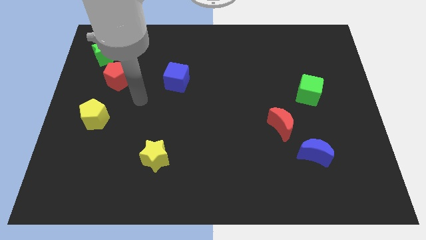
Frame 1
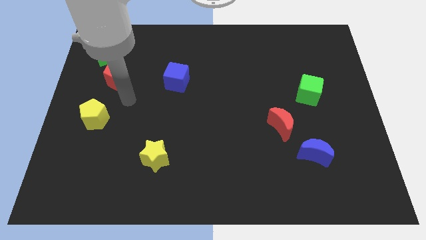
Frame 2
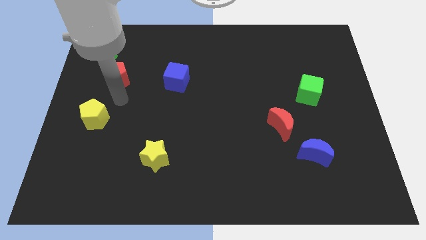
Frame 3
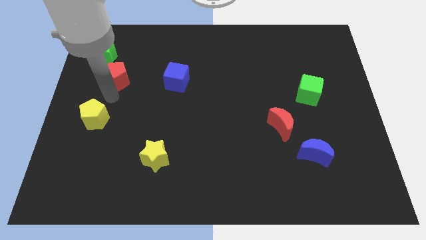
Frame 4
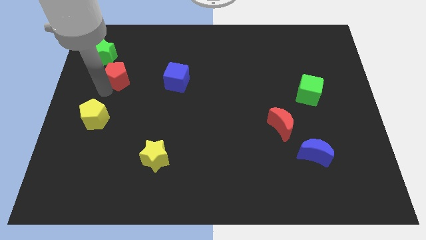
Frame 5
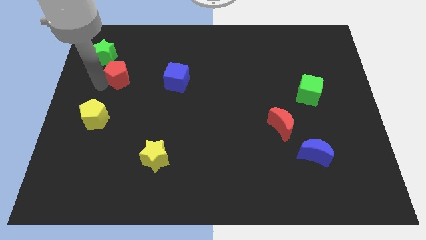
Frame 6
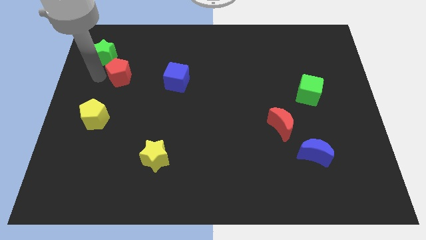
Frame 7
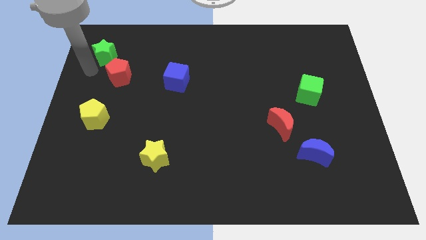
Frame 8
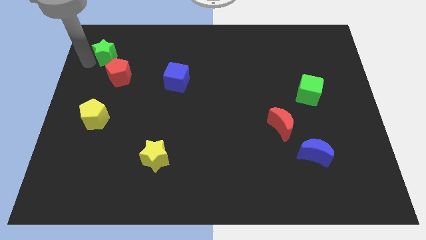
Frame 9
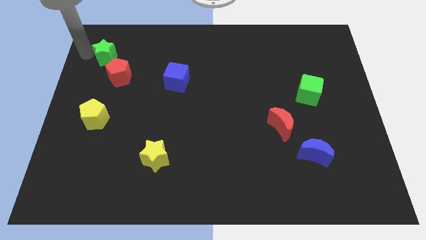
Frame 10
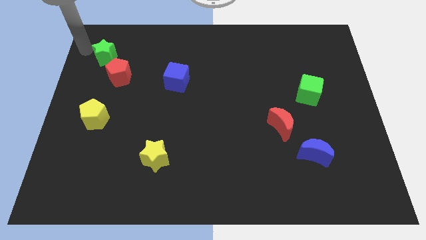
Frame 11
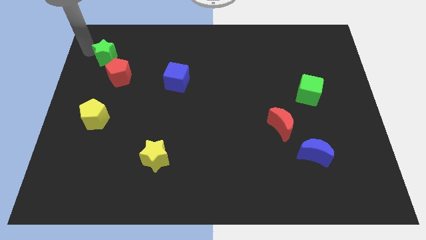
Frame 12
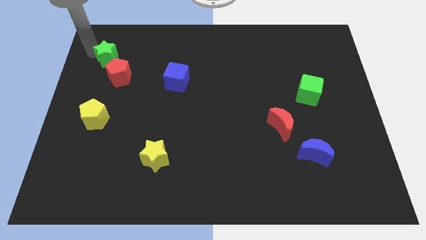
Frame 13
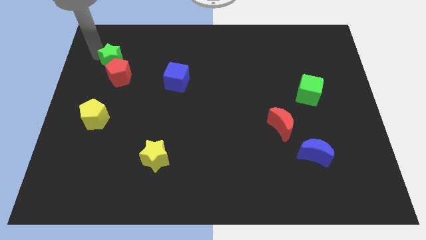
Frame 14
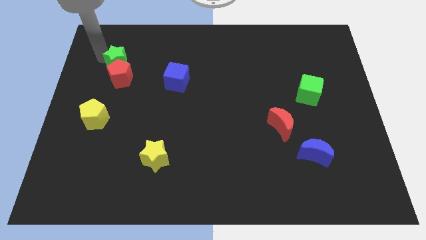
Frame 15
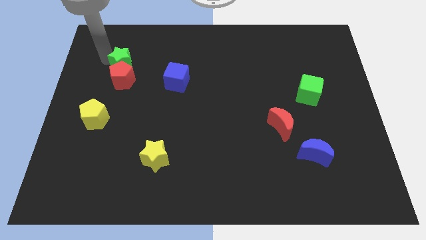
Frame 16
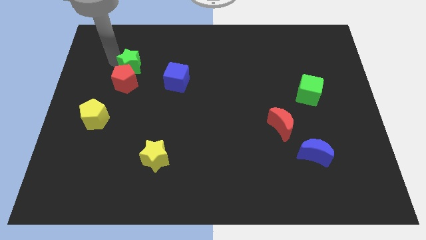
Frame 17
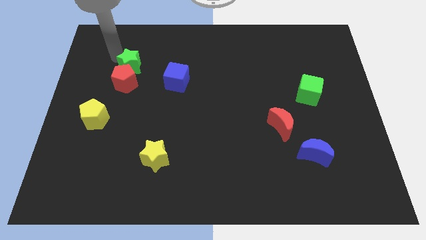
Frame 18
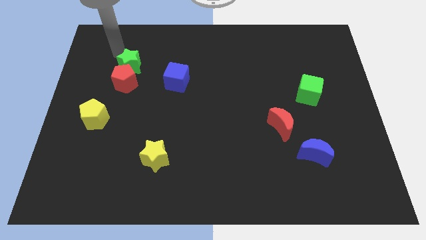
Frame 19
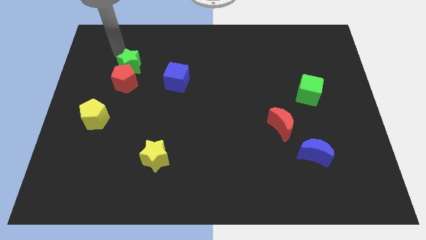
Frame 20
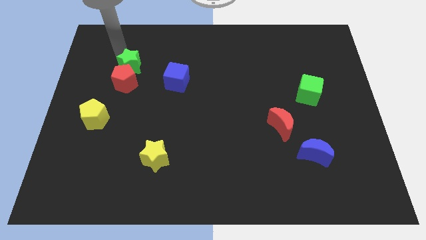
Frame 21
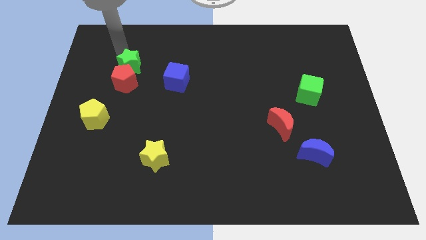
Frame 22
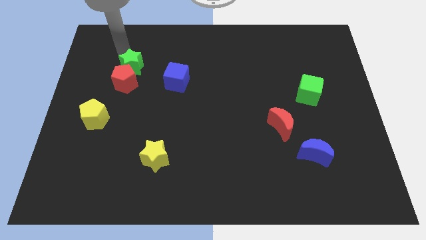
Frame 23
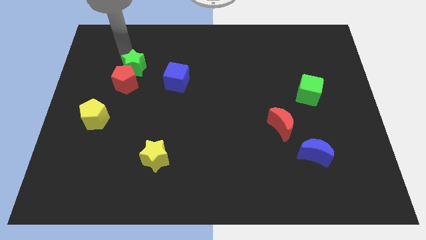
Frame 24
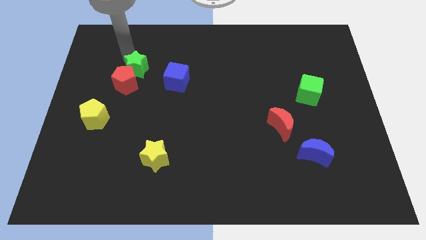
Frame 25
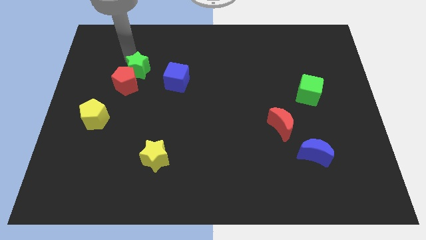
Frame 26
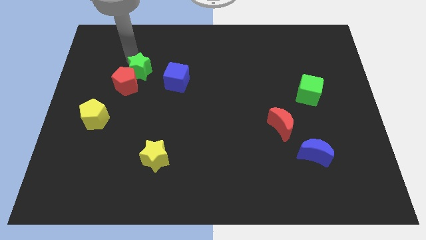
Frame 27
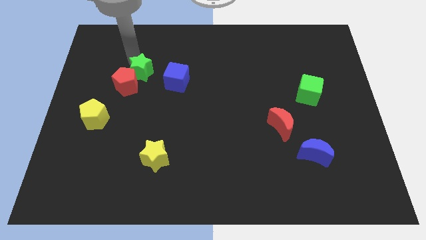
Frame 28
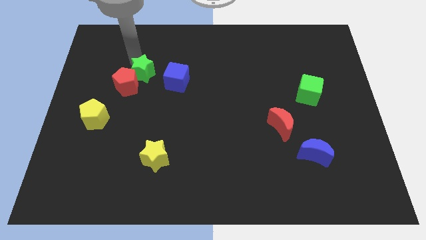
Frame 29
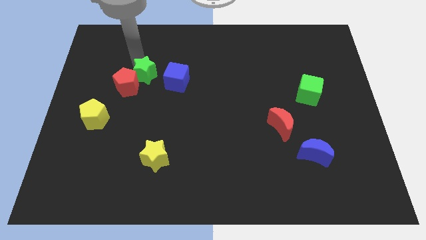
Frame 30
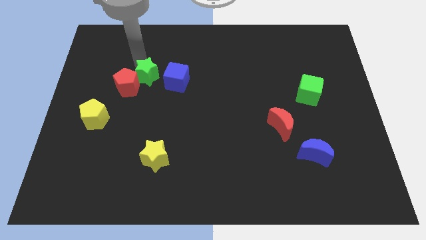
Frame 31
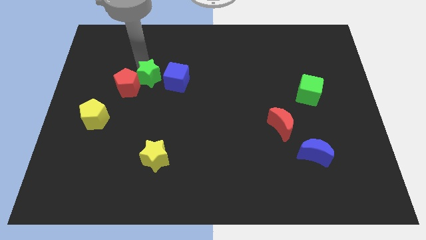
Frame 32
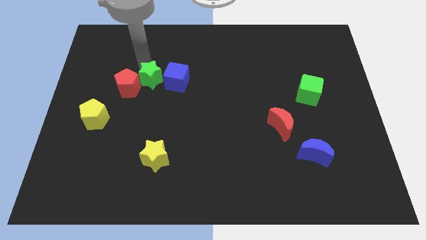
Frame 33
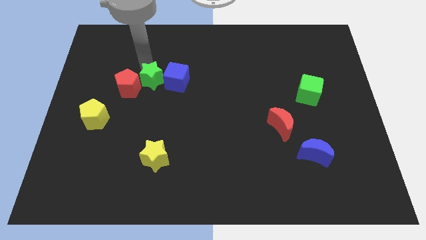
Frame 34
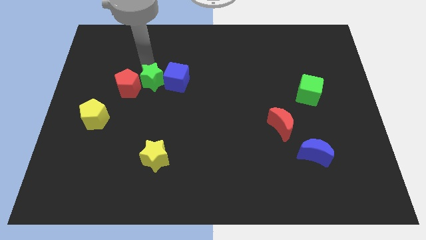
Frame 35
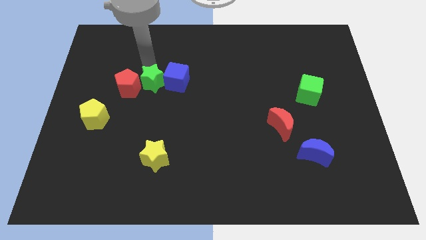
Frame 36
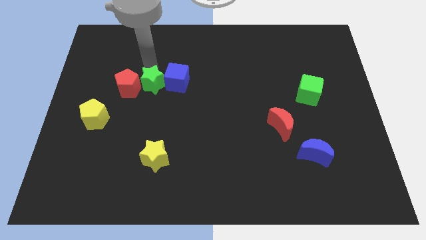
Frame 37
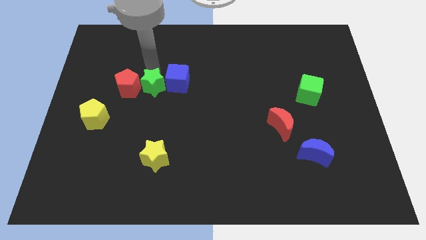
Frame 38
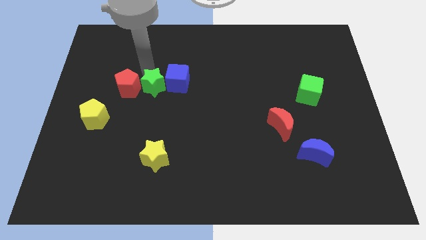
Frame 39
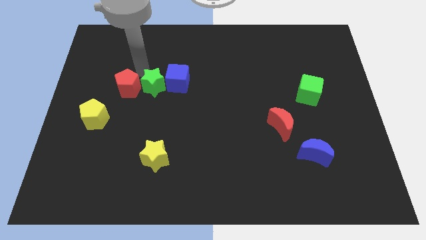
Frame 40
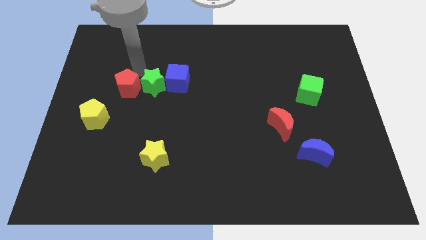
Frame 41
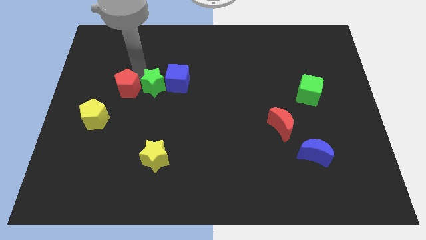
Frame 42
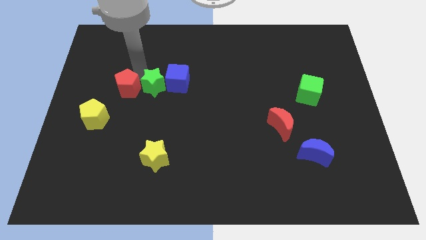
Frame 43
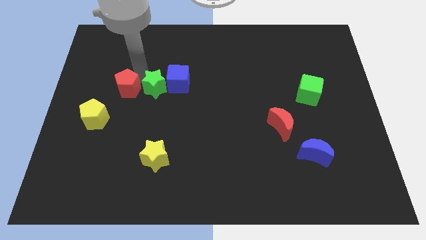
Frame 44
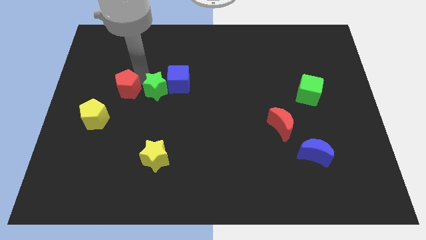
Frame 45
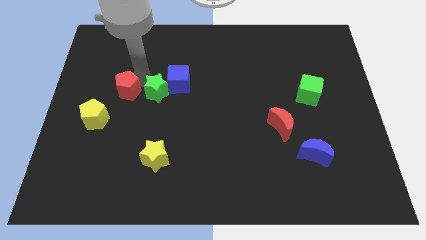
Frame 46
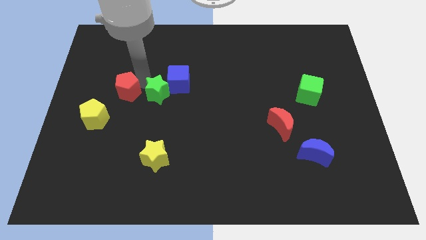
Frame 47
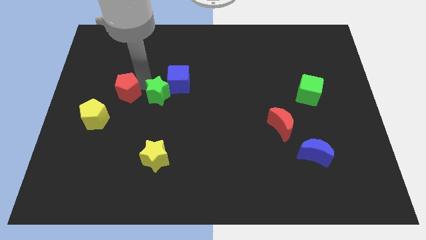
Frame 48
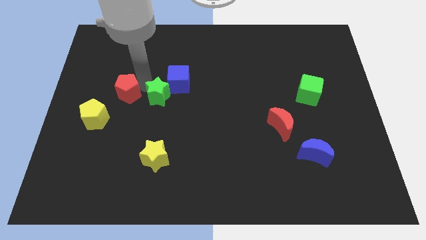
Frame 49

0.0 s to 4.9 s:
put the green star to the bottom of the blue cube

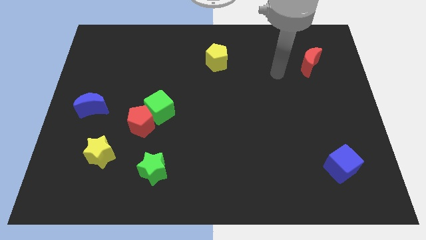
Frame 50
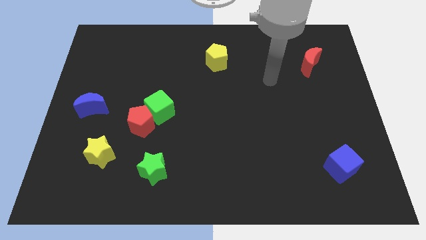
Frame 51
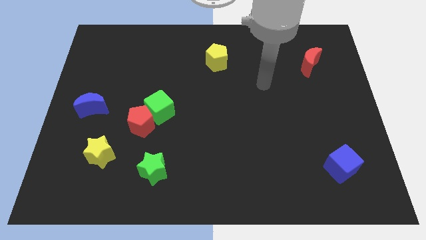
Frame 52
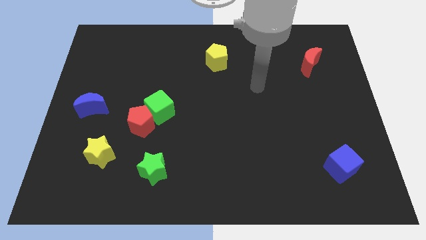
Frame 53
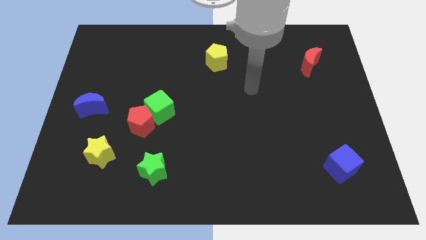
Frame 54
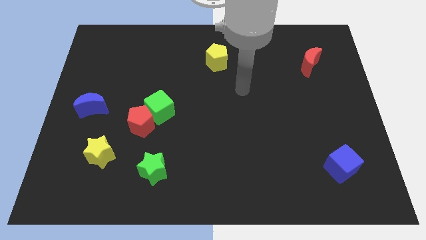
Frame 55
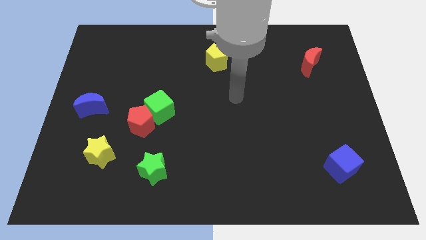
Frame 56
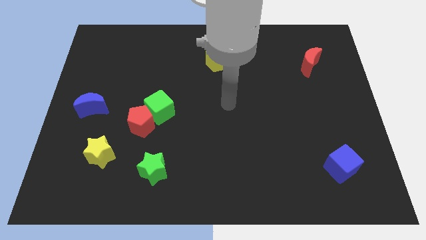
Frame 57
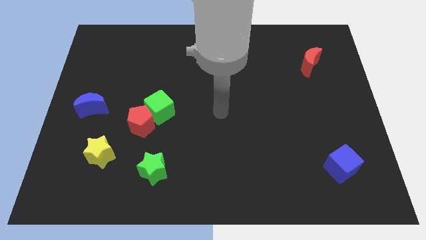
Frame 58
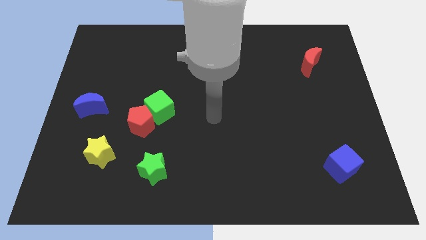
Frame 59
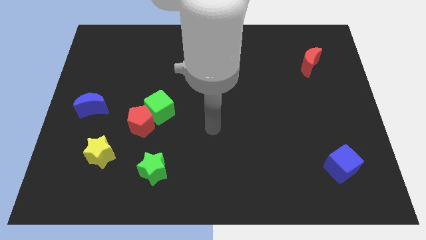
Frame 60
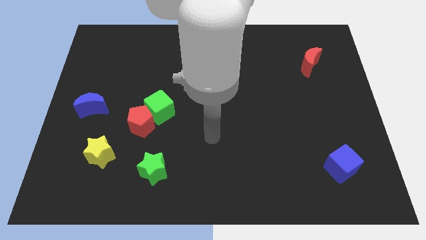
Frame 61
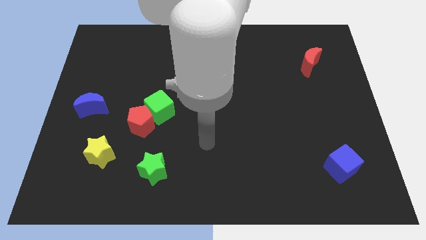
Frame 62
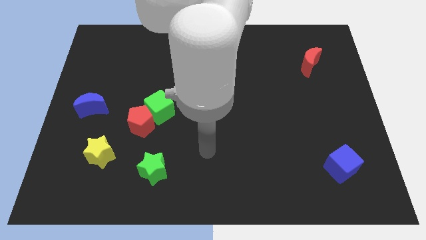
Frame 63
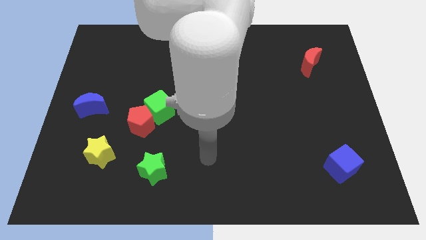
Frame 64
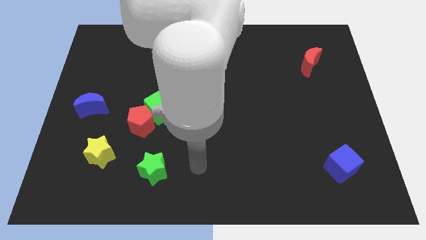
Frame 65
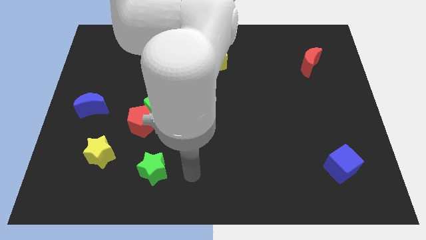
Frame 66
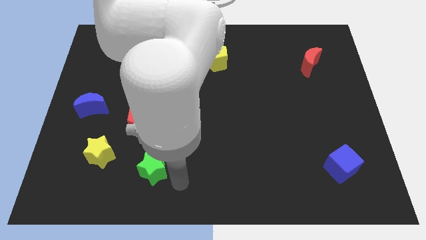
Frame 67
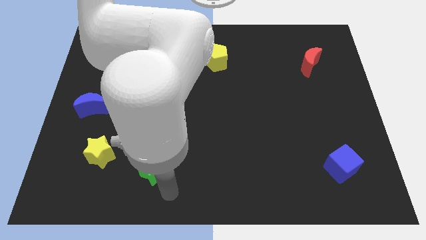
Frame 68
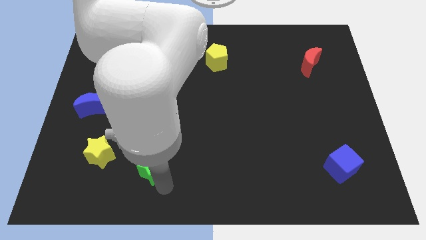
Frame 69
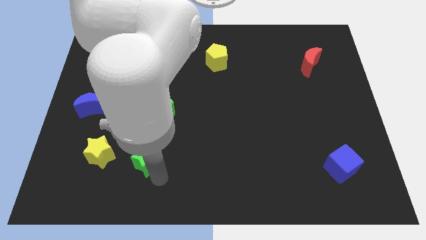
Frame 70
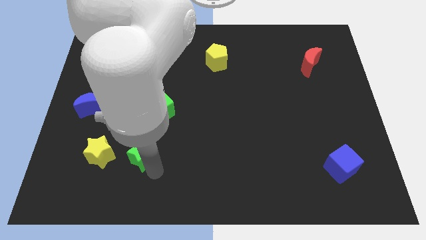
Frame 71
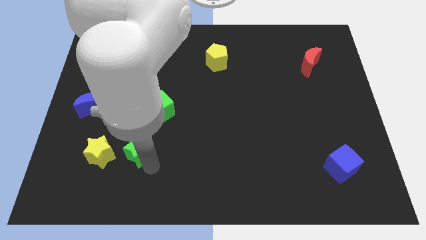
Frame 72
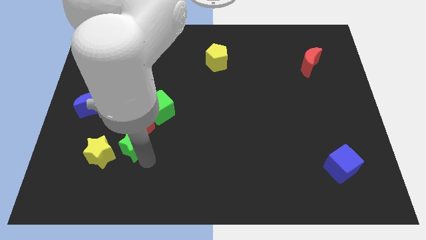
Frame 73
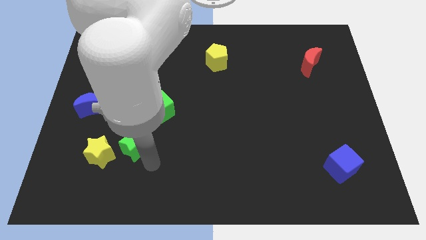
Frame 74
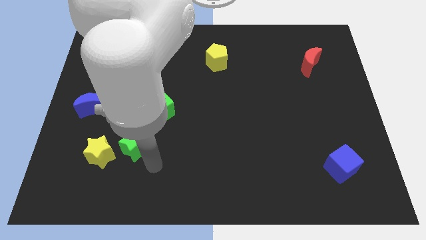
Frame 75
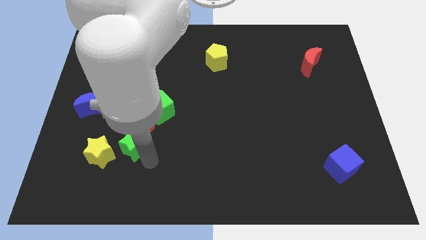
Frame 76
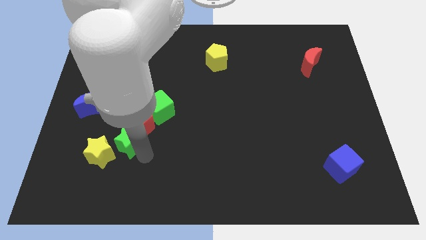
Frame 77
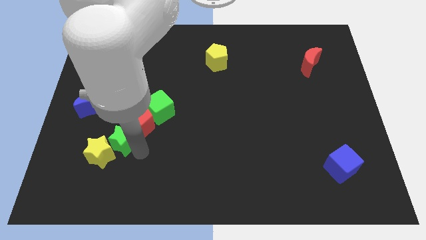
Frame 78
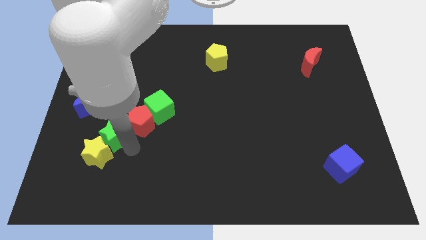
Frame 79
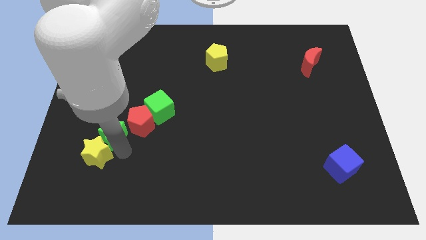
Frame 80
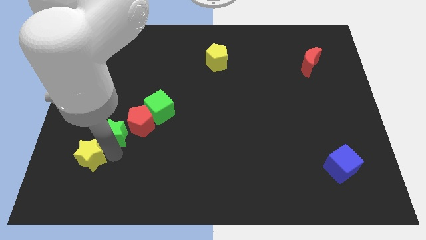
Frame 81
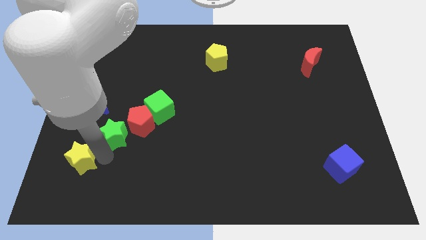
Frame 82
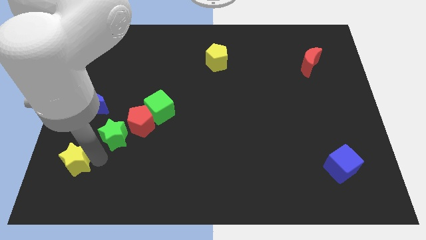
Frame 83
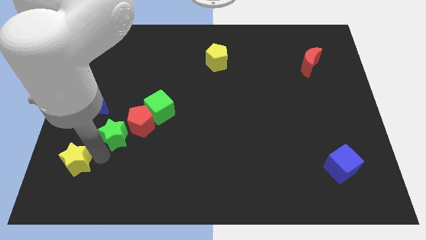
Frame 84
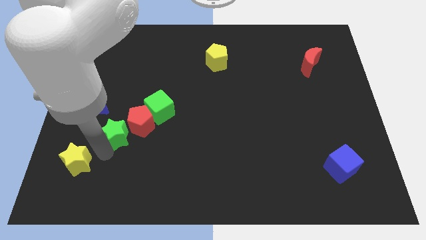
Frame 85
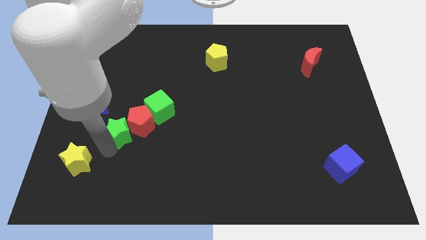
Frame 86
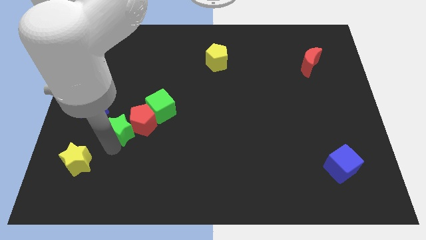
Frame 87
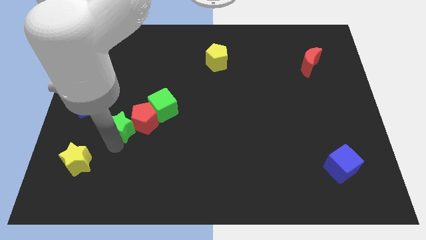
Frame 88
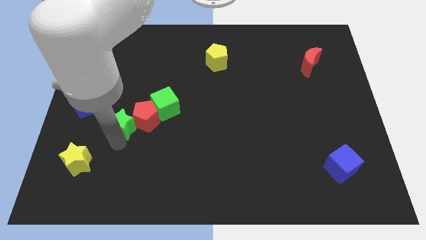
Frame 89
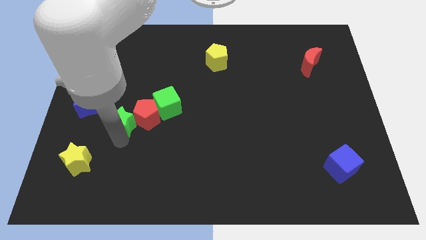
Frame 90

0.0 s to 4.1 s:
put the green star just right of the blue moon
